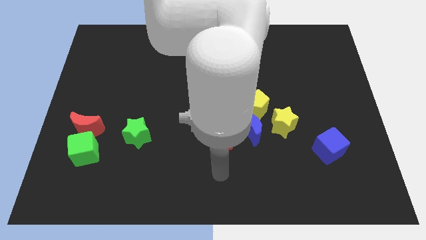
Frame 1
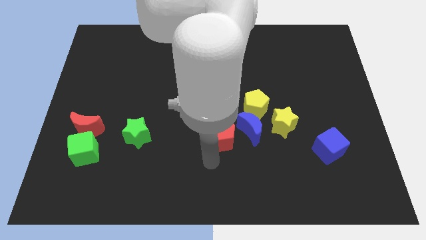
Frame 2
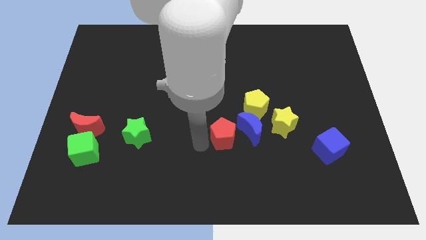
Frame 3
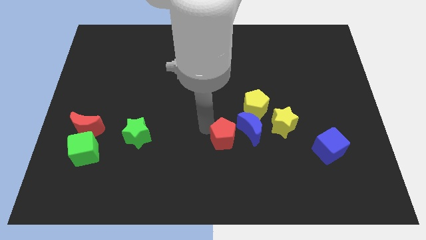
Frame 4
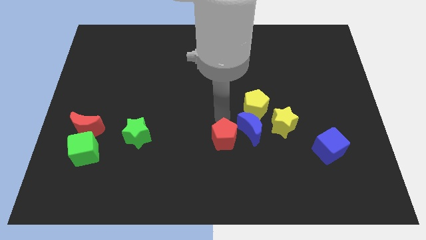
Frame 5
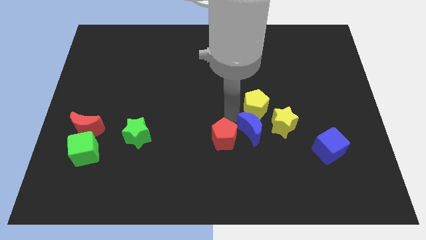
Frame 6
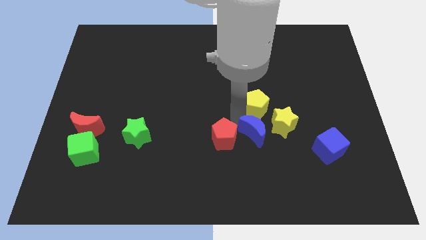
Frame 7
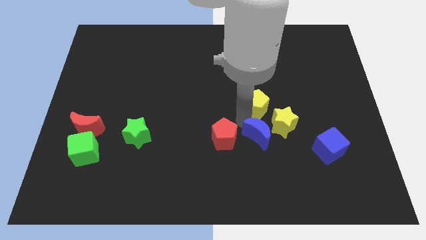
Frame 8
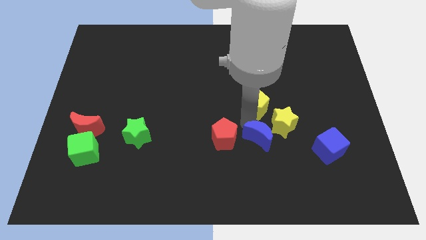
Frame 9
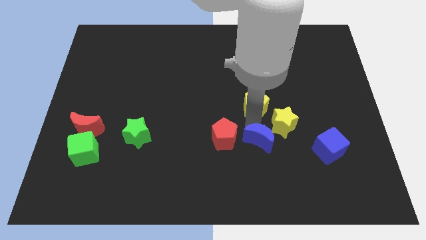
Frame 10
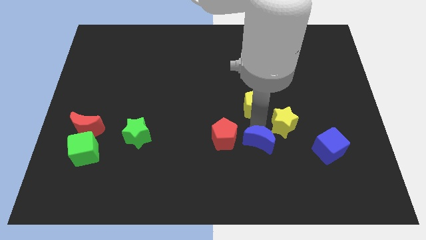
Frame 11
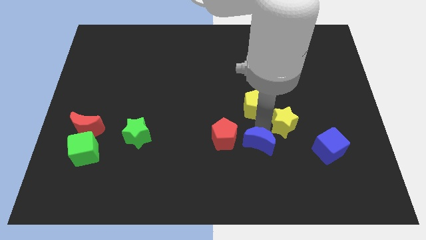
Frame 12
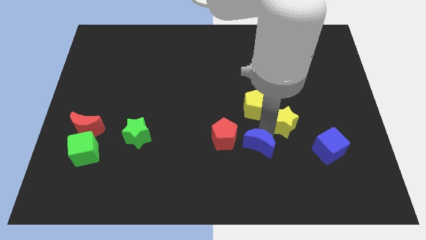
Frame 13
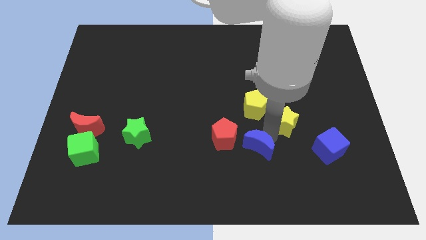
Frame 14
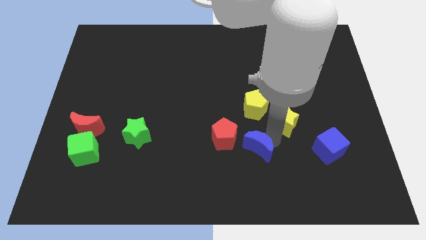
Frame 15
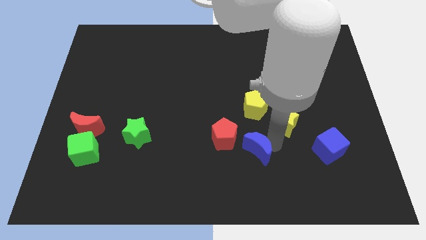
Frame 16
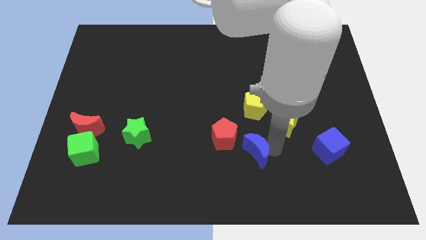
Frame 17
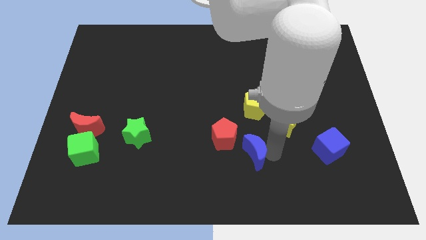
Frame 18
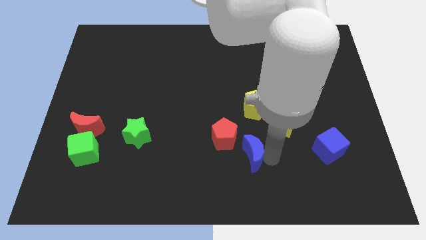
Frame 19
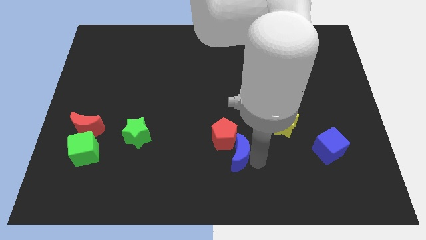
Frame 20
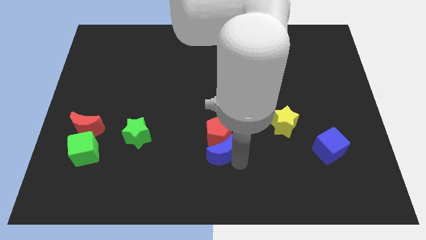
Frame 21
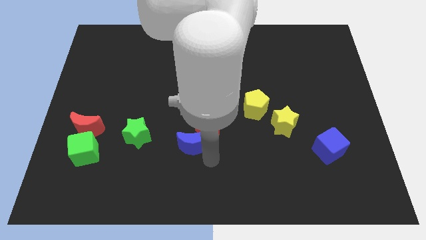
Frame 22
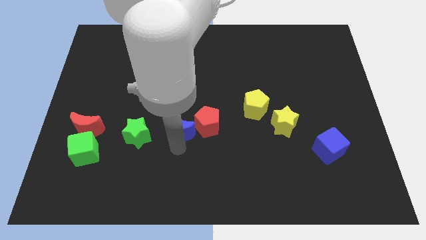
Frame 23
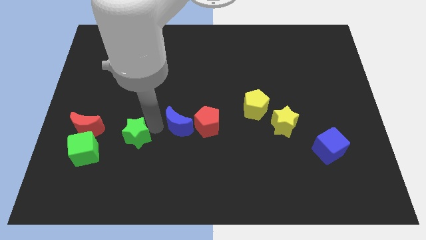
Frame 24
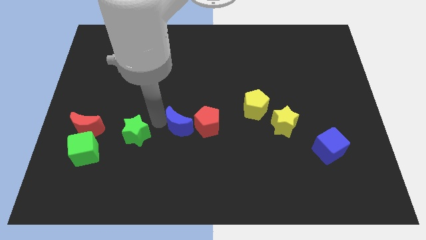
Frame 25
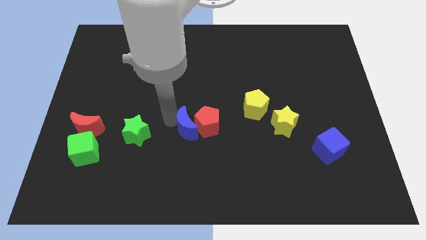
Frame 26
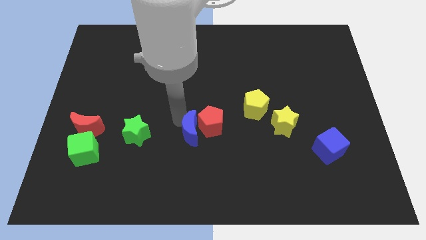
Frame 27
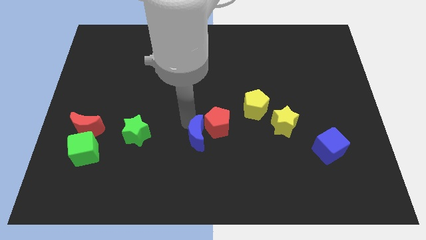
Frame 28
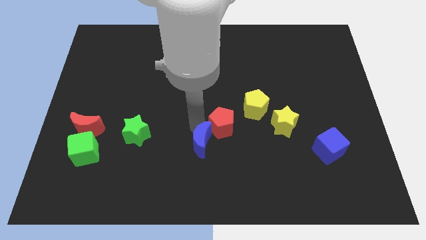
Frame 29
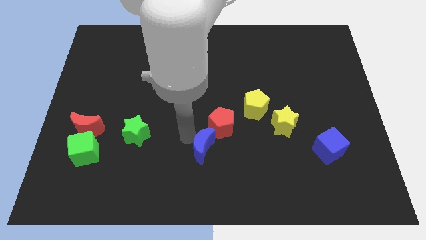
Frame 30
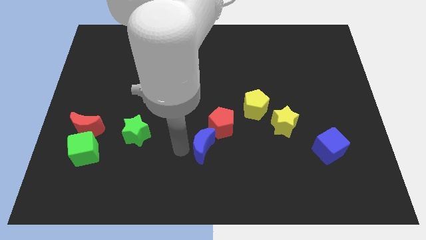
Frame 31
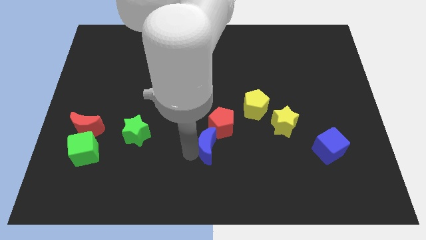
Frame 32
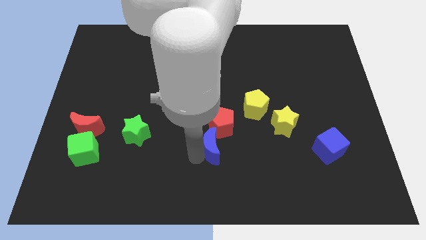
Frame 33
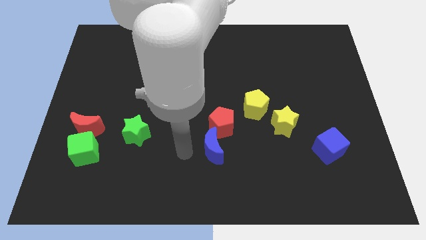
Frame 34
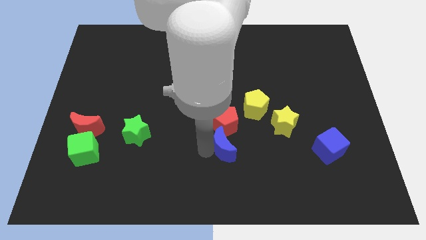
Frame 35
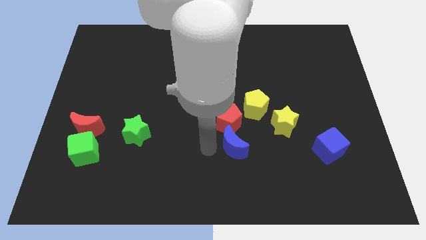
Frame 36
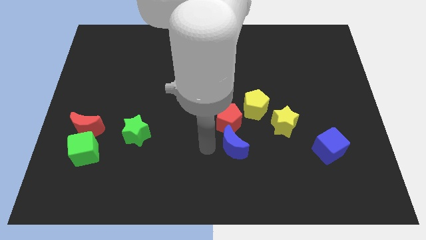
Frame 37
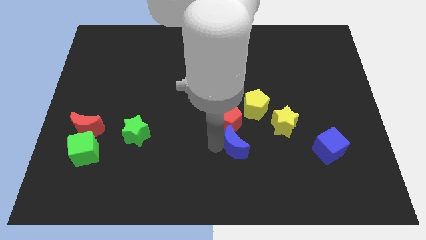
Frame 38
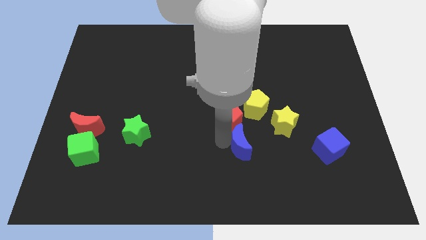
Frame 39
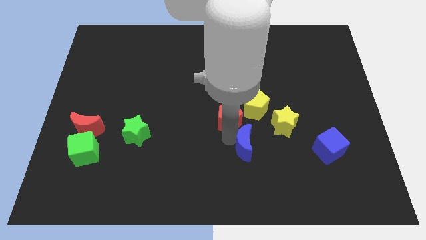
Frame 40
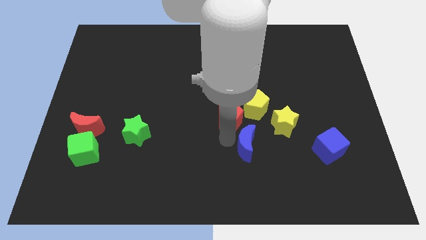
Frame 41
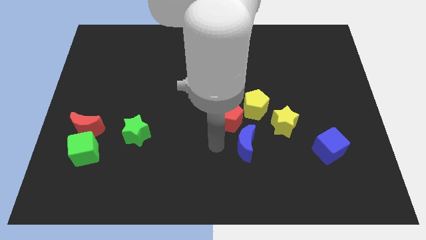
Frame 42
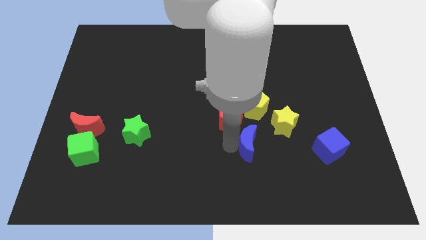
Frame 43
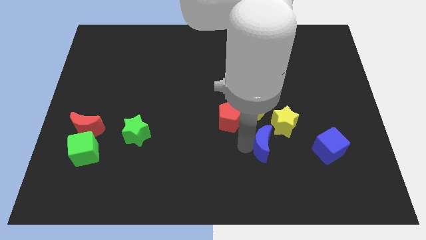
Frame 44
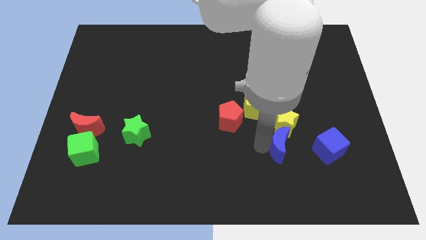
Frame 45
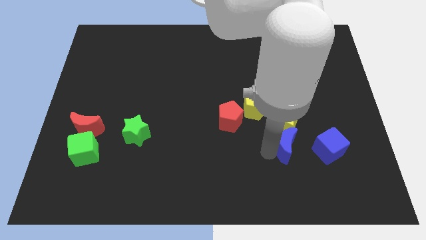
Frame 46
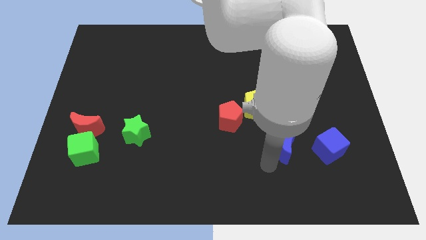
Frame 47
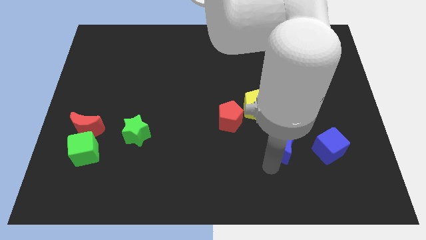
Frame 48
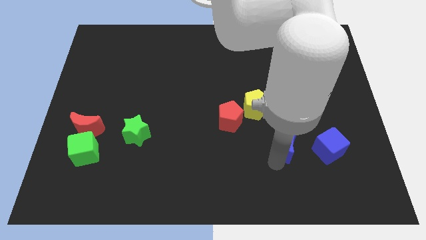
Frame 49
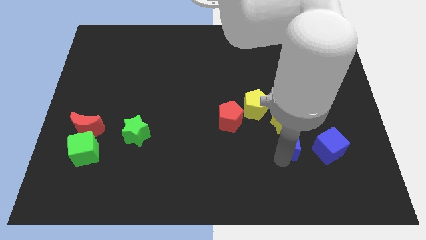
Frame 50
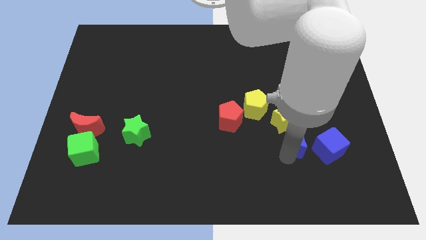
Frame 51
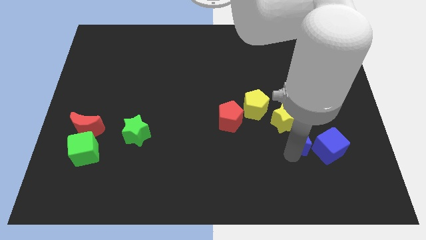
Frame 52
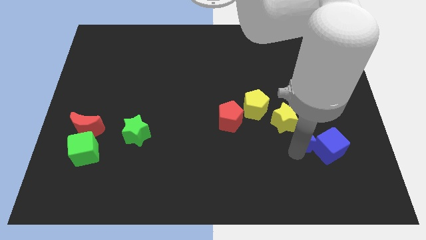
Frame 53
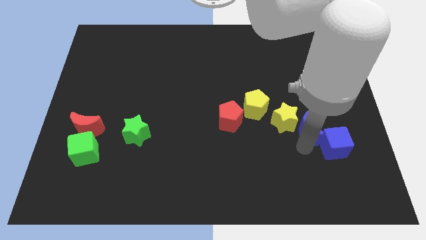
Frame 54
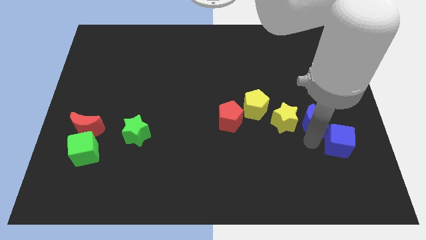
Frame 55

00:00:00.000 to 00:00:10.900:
slide the blue moon somewhat diagonally up and right

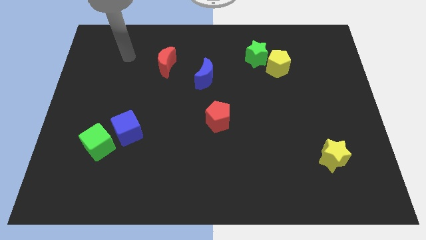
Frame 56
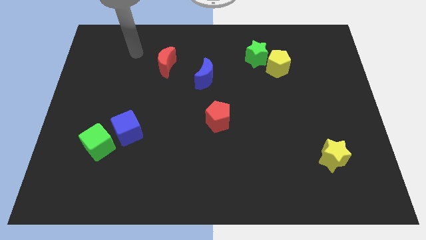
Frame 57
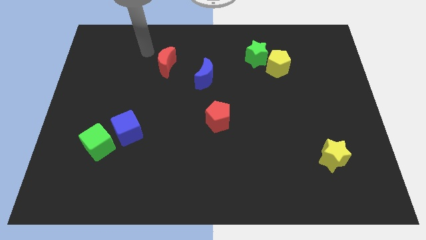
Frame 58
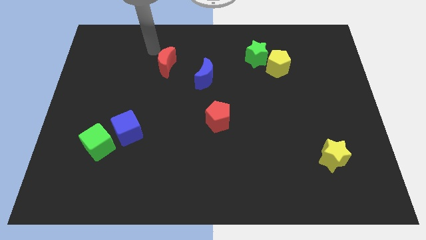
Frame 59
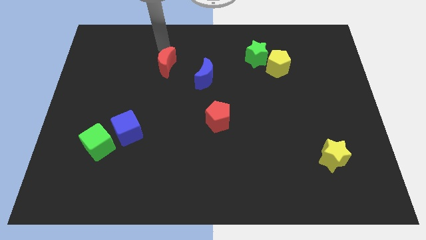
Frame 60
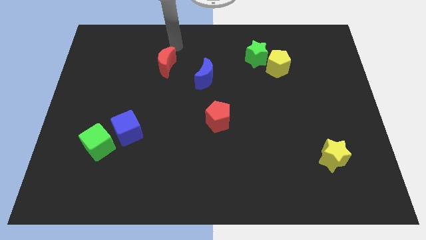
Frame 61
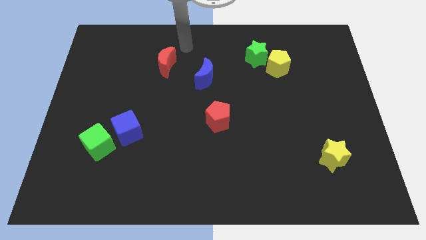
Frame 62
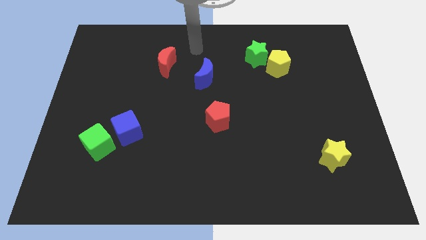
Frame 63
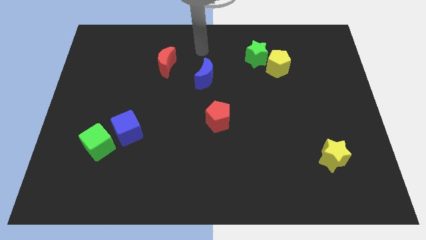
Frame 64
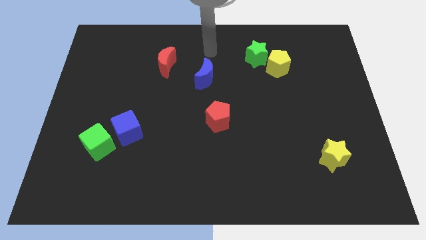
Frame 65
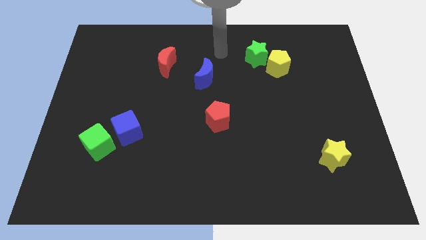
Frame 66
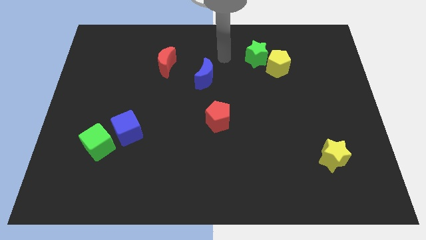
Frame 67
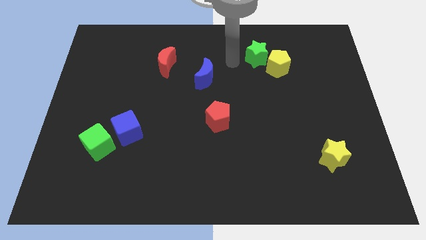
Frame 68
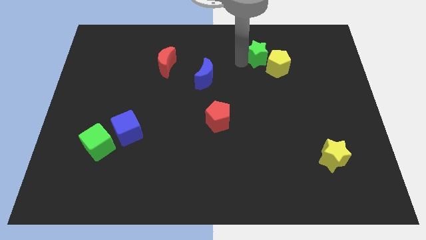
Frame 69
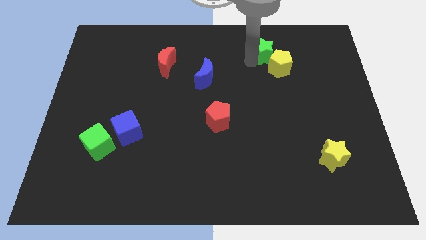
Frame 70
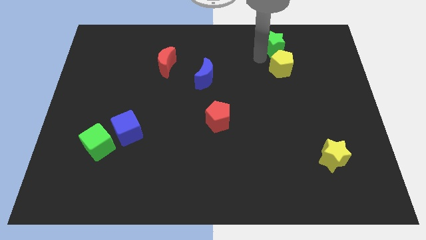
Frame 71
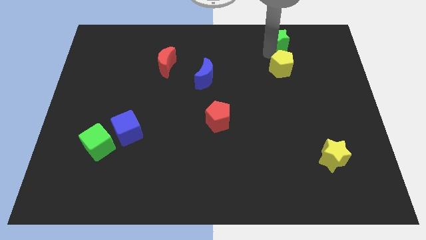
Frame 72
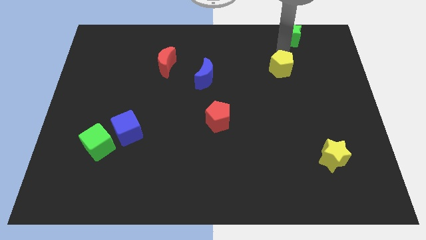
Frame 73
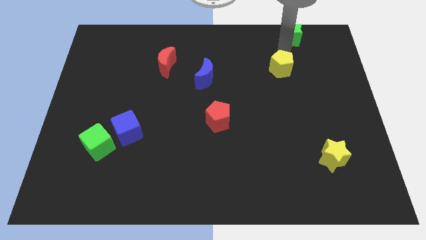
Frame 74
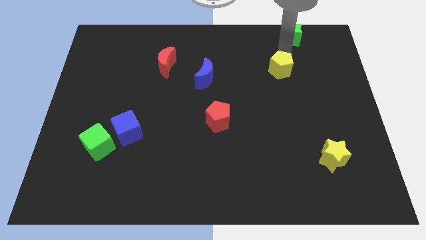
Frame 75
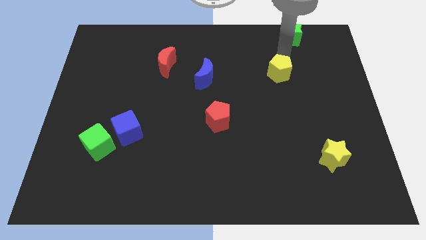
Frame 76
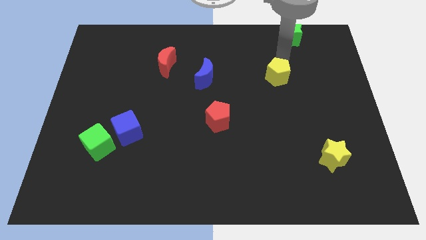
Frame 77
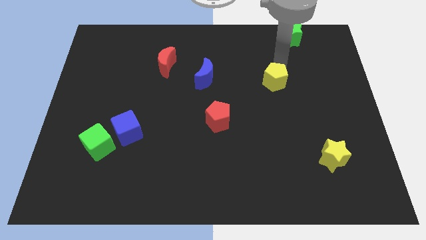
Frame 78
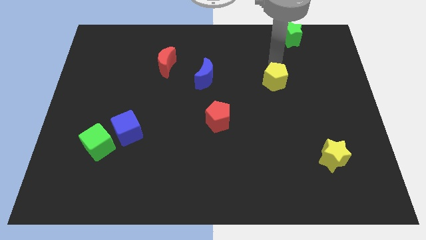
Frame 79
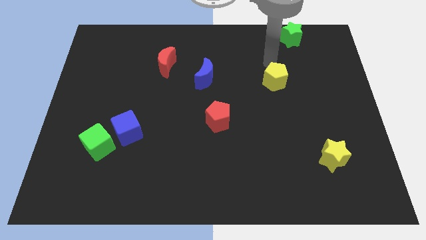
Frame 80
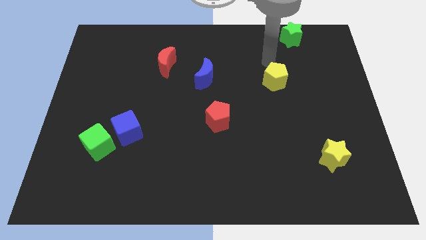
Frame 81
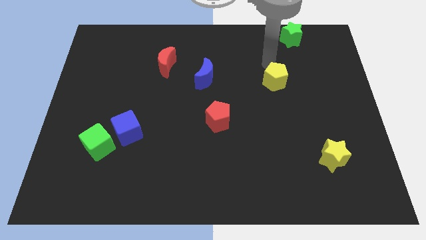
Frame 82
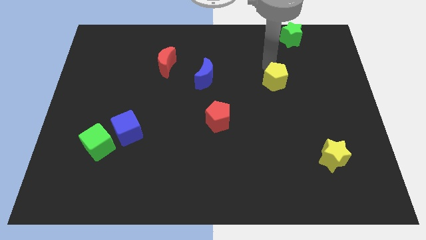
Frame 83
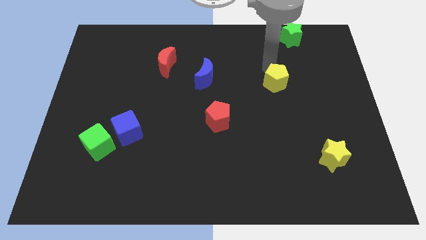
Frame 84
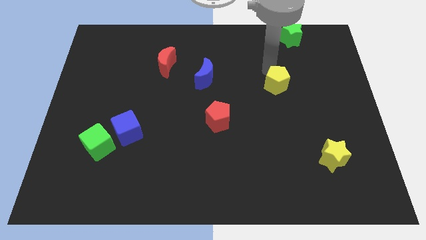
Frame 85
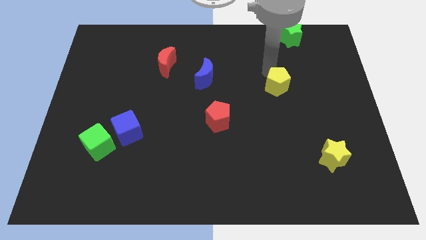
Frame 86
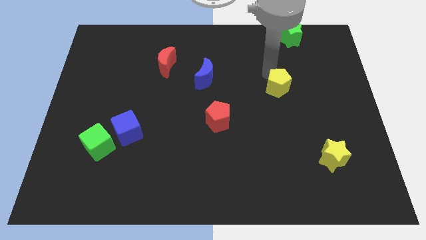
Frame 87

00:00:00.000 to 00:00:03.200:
move the yellow pentagon somewhat downwards
